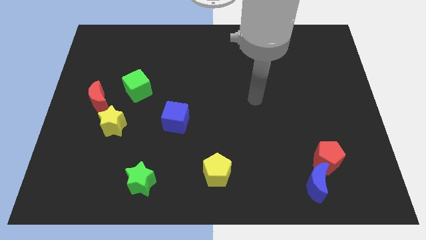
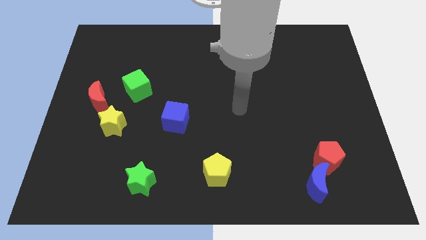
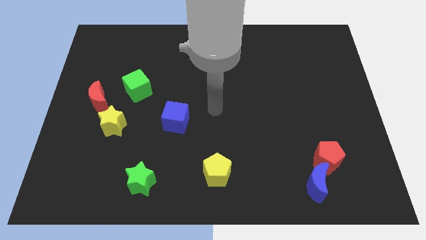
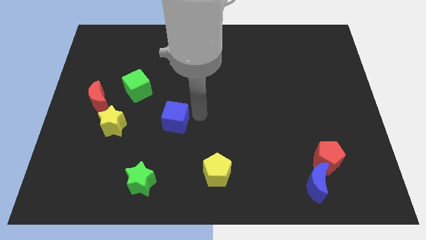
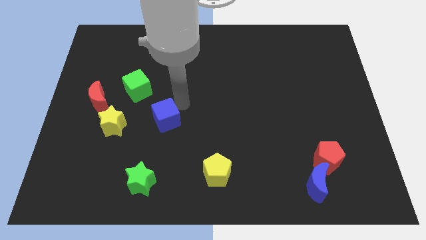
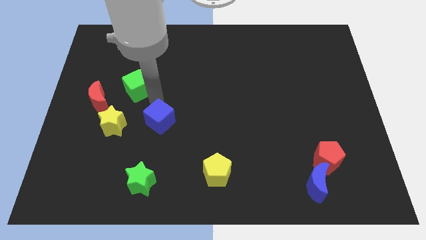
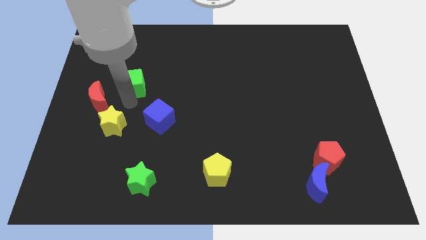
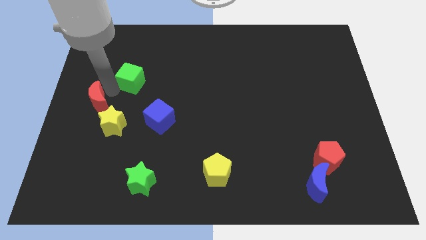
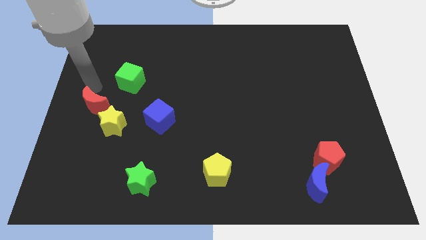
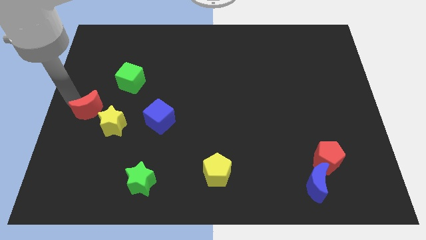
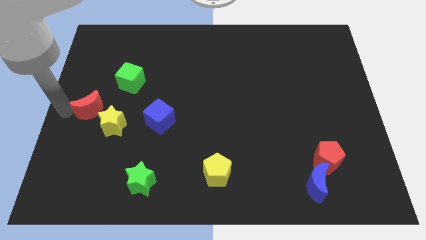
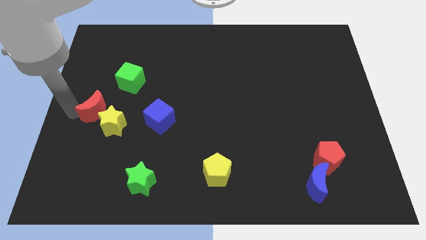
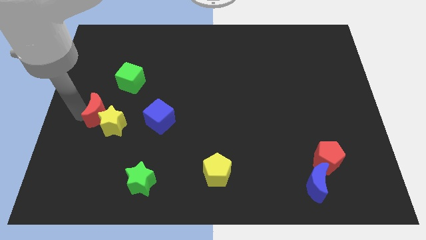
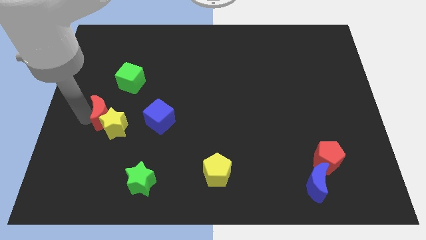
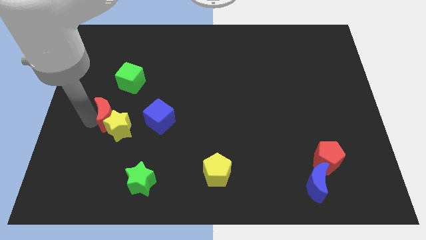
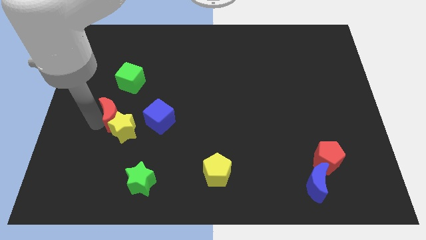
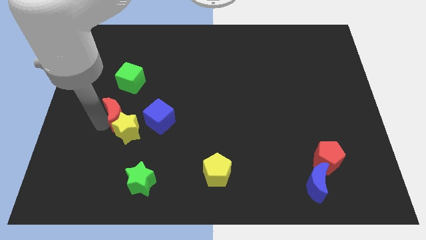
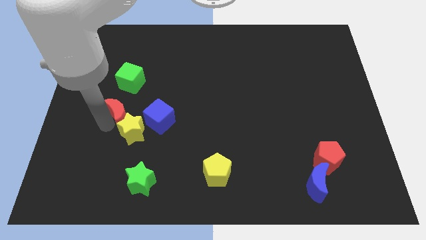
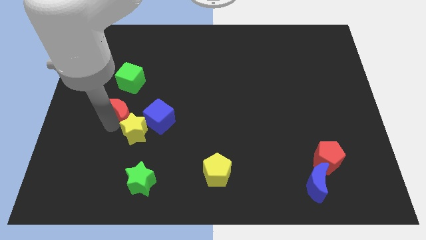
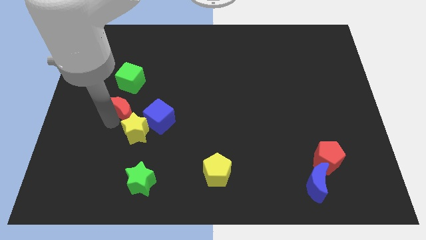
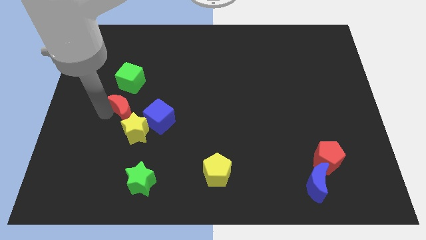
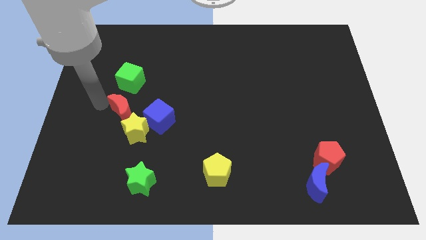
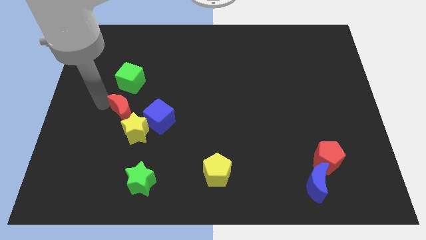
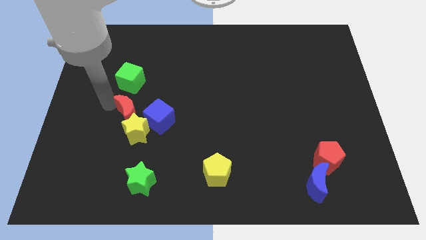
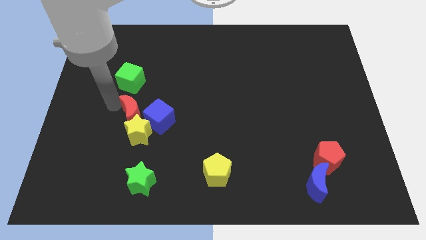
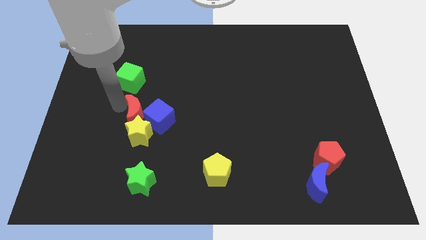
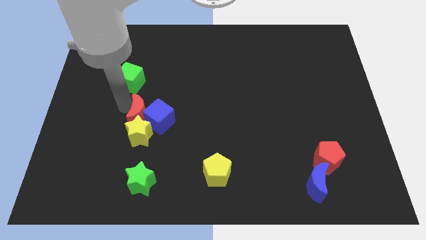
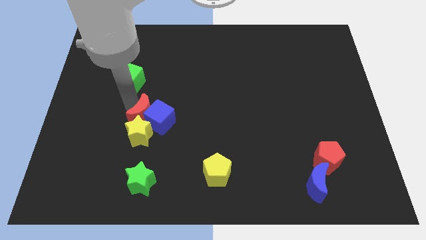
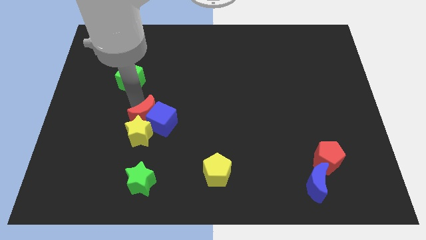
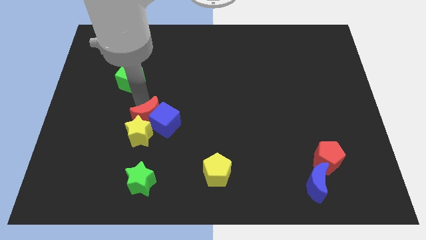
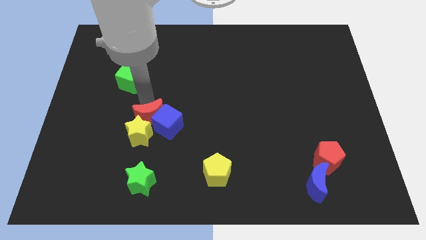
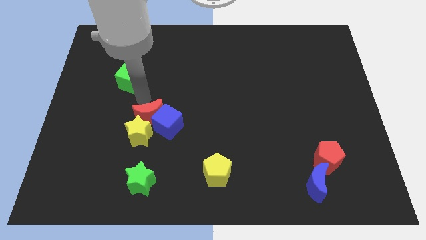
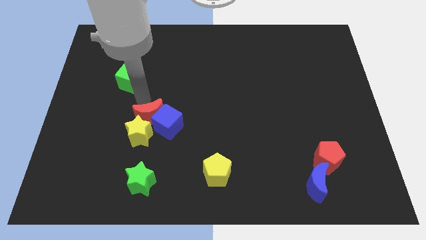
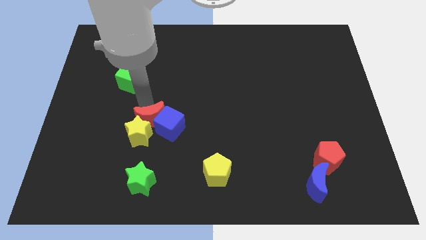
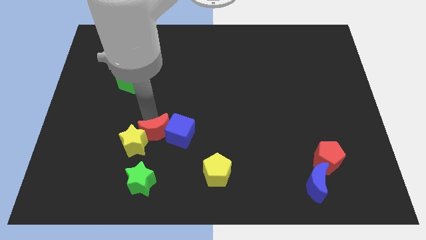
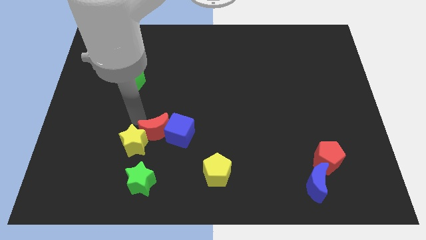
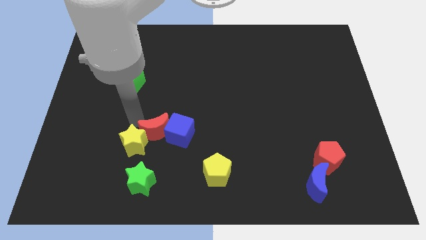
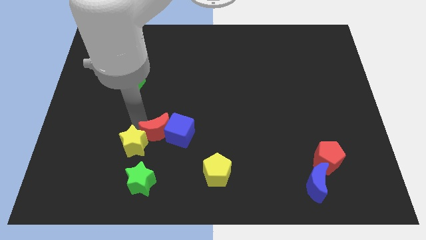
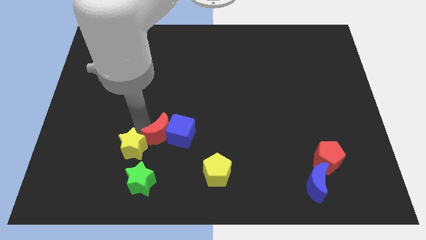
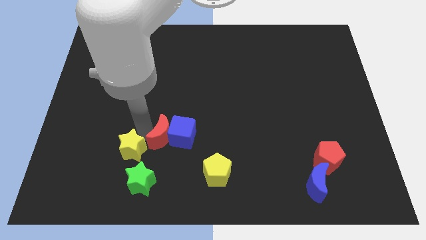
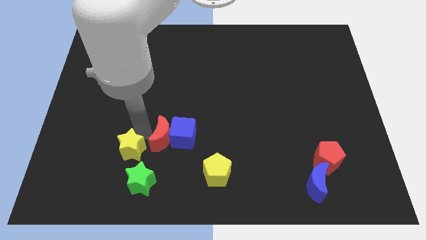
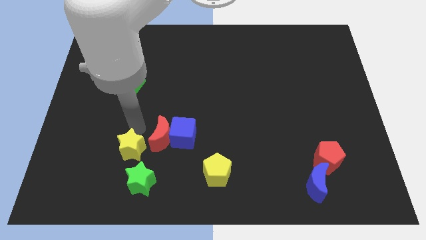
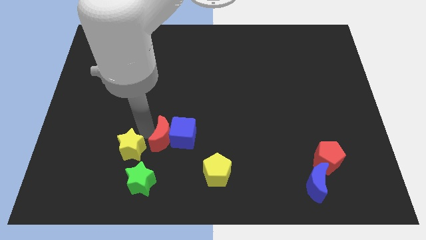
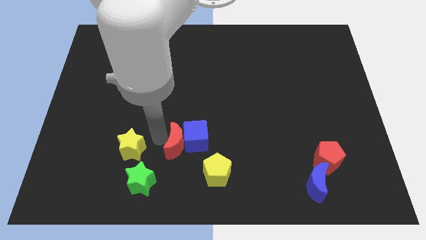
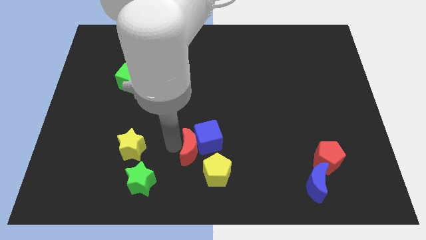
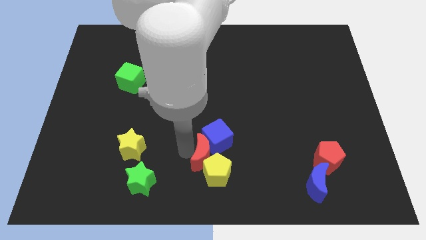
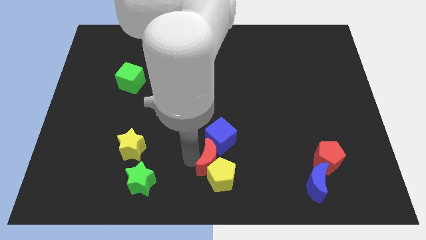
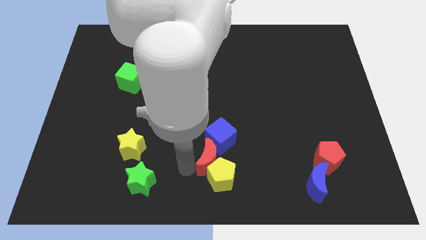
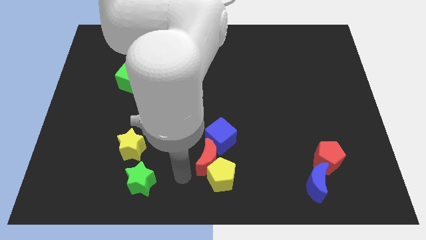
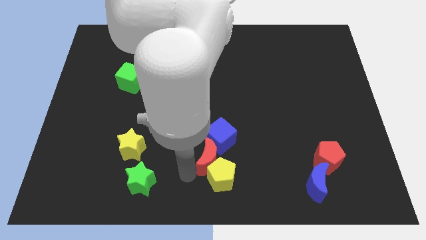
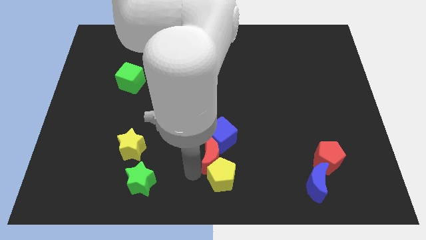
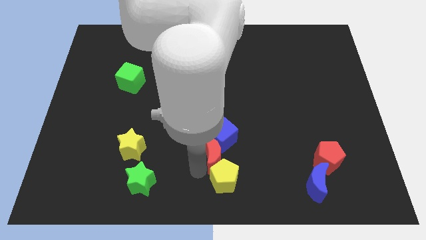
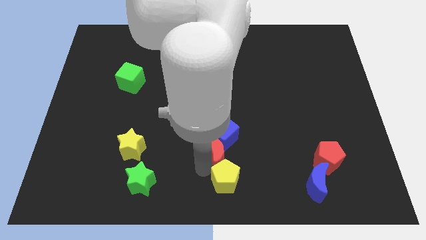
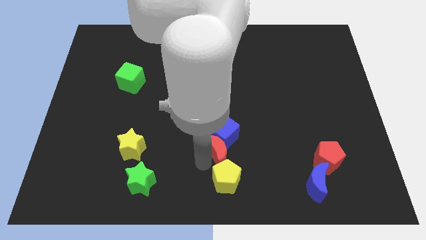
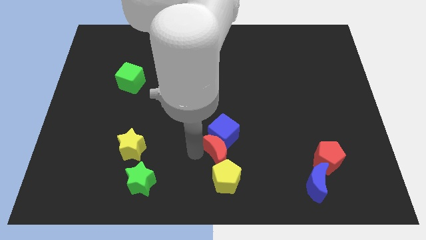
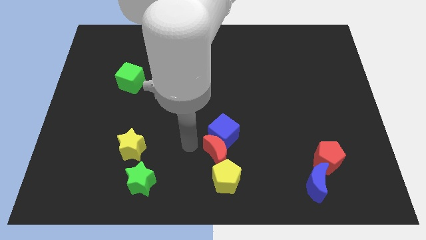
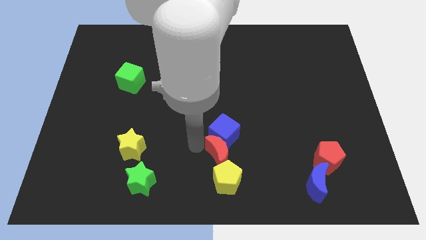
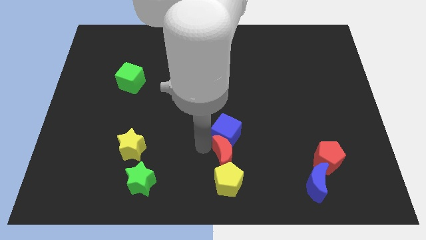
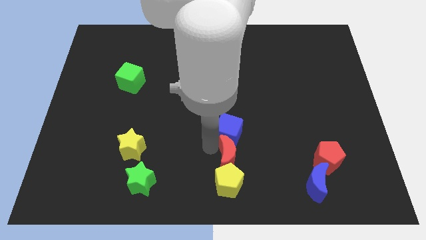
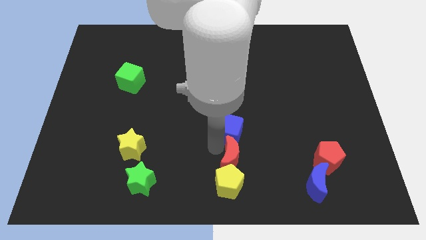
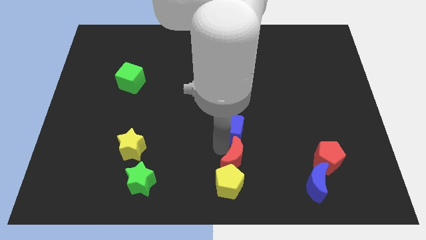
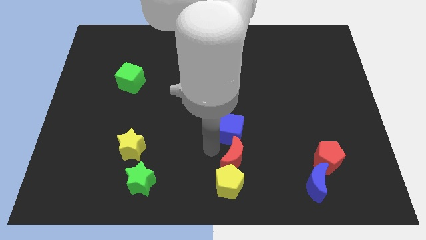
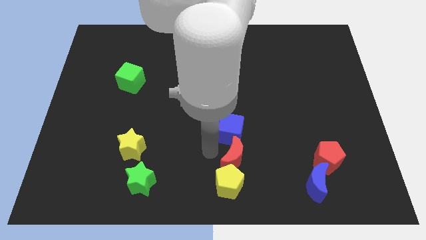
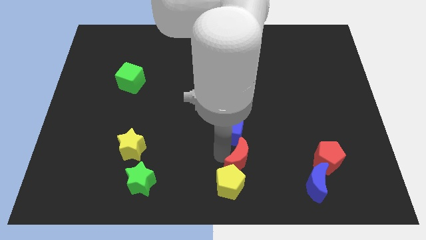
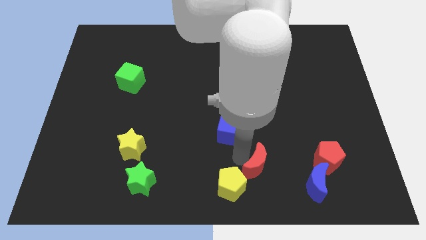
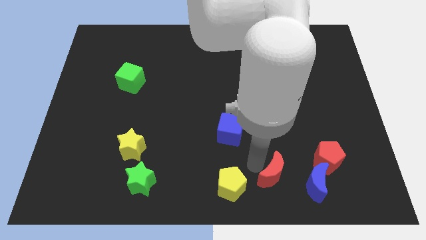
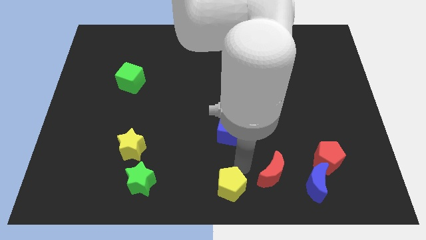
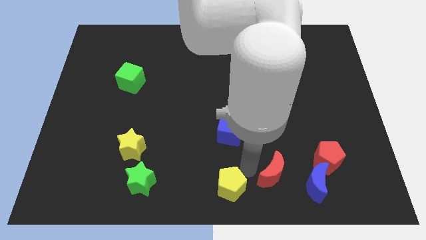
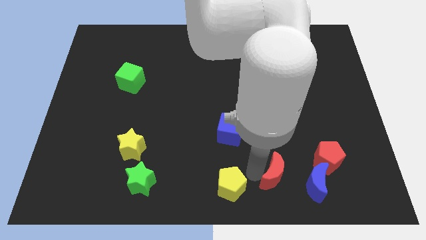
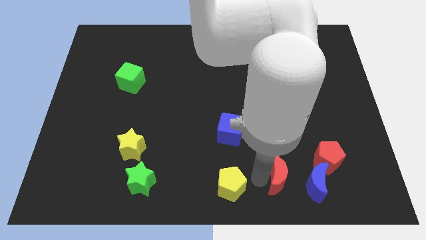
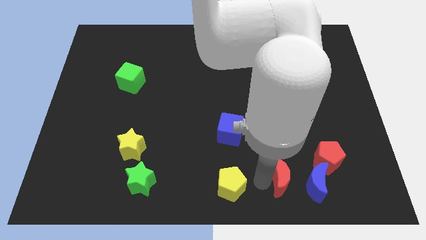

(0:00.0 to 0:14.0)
push the red moon to the bottom left side of the red pentagon

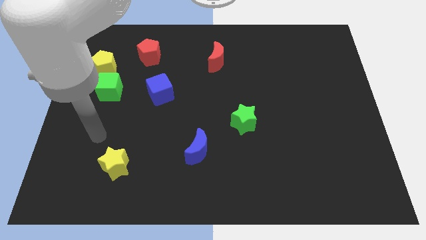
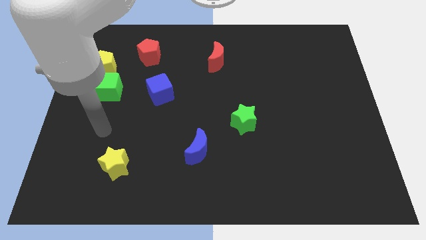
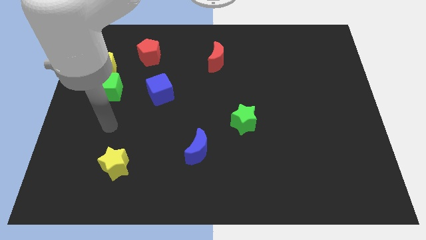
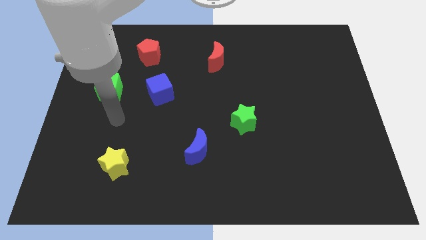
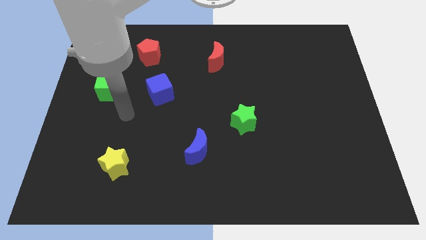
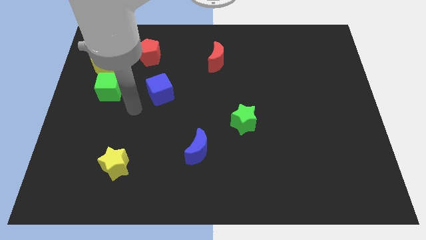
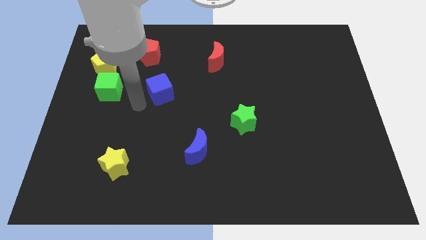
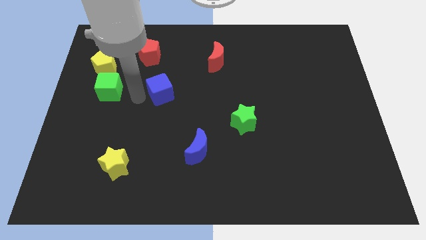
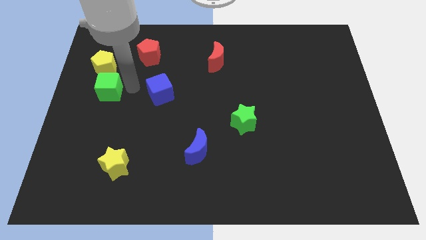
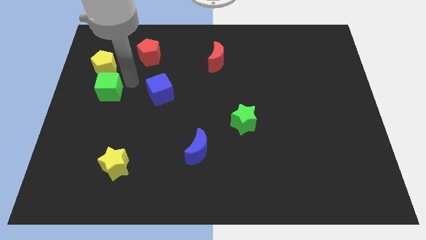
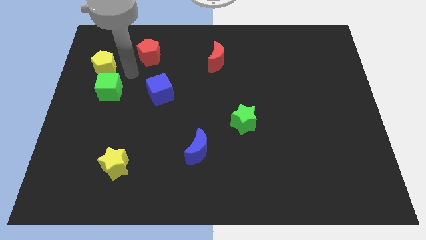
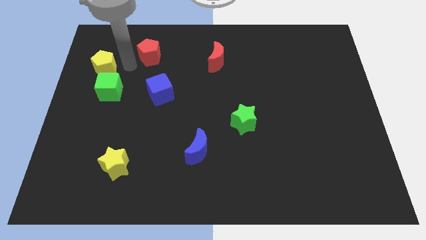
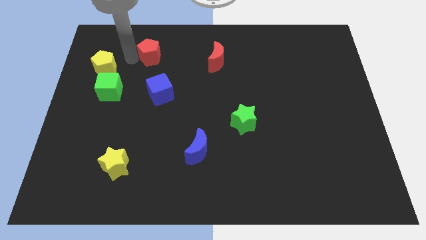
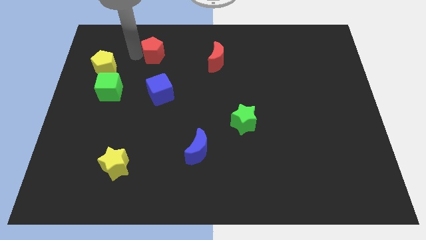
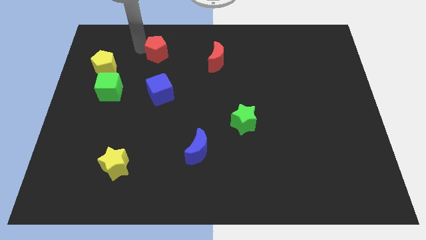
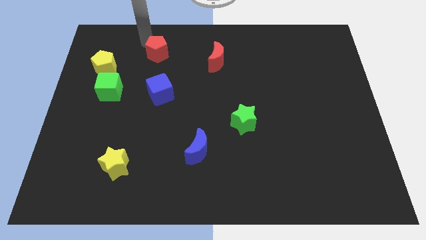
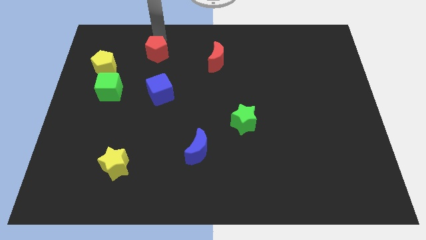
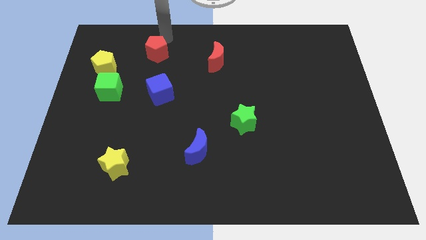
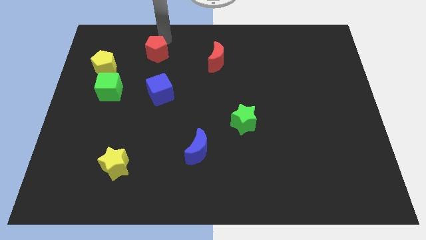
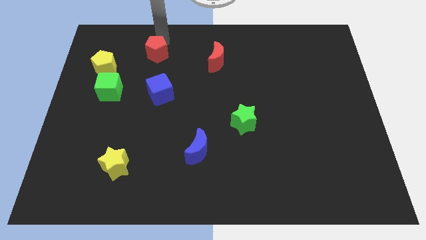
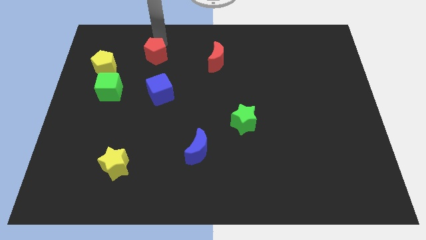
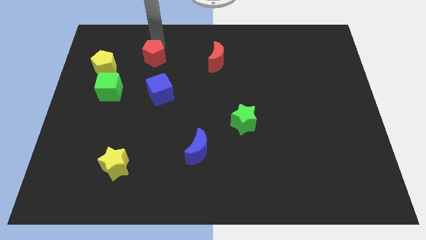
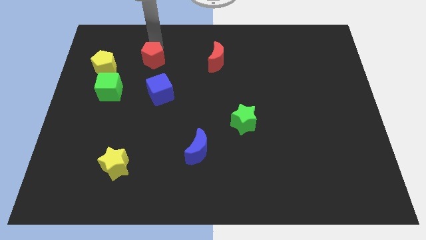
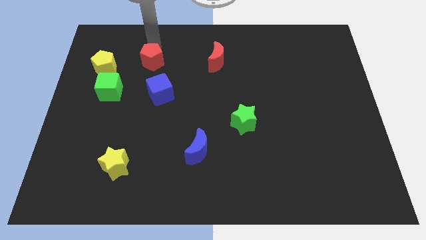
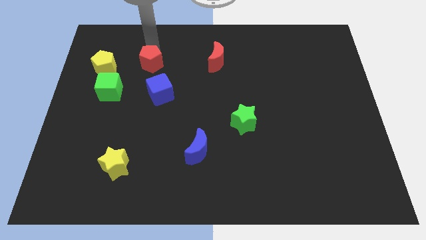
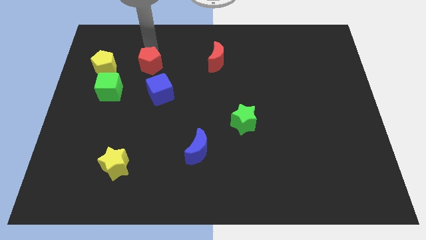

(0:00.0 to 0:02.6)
push the red pentagon diagonally up and to the left of the blue cube
